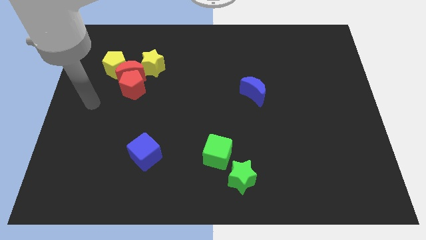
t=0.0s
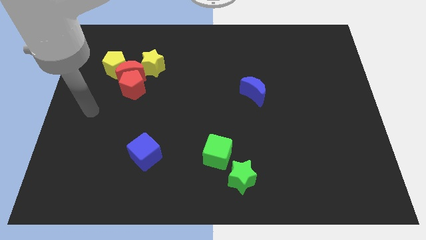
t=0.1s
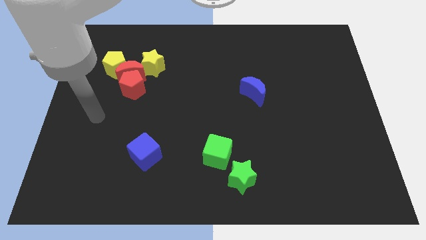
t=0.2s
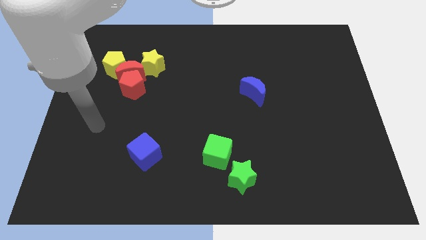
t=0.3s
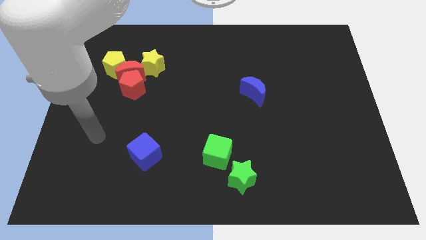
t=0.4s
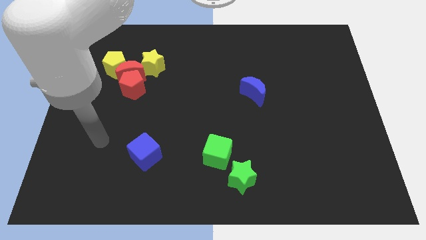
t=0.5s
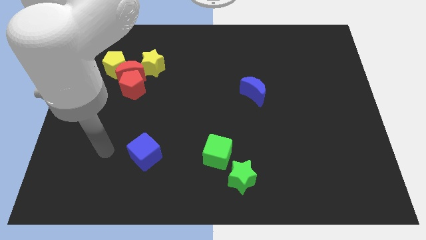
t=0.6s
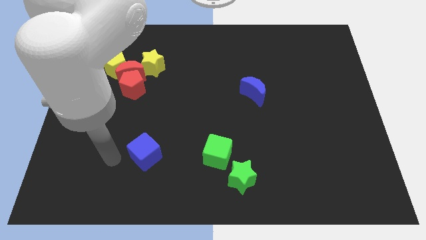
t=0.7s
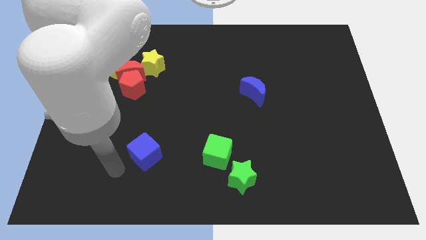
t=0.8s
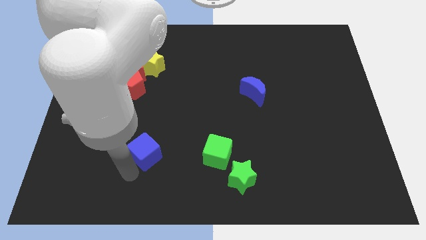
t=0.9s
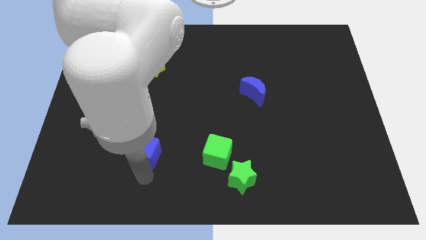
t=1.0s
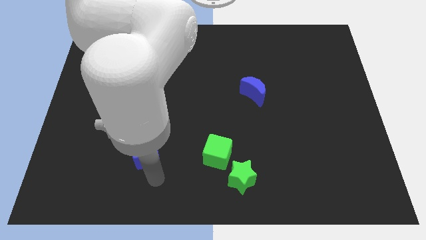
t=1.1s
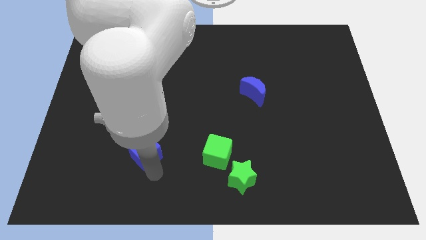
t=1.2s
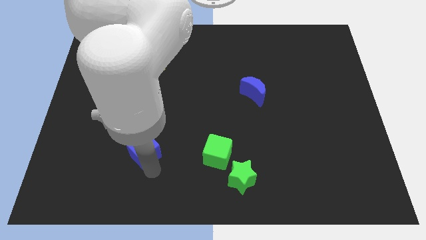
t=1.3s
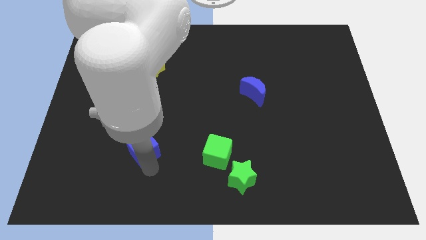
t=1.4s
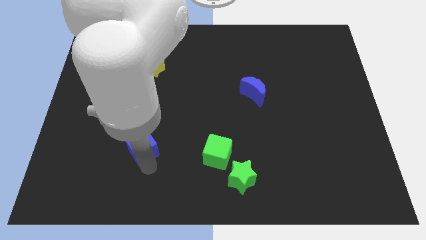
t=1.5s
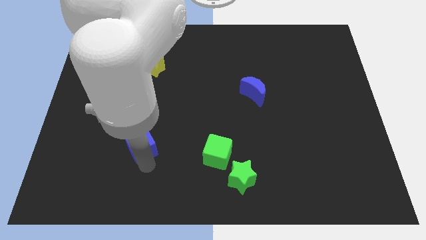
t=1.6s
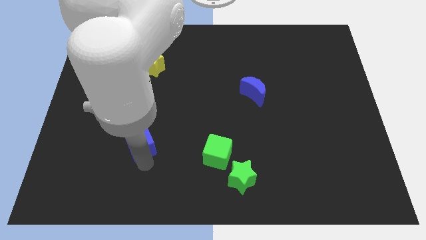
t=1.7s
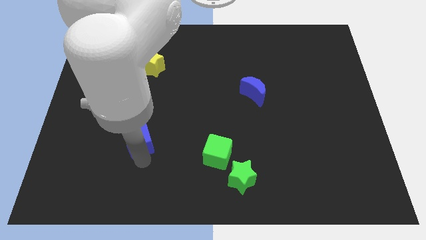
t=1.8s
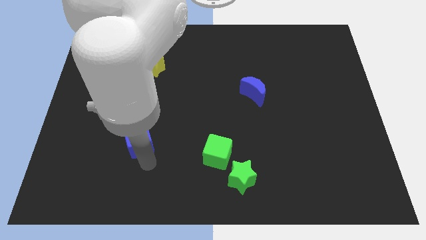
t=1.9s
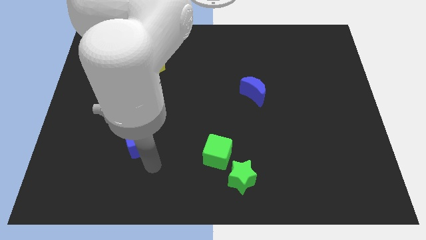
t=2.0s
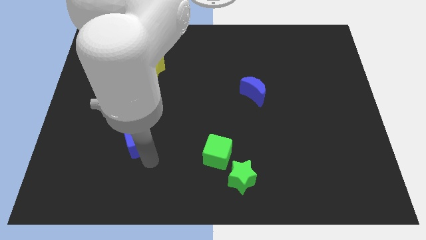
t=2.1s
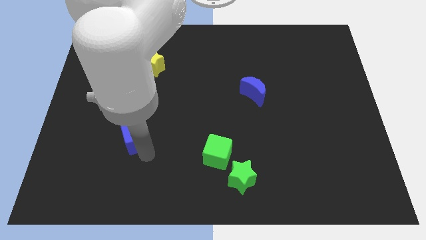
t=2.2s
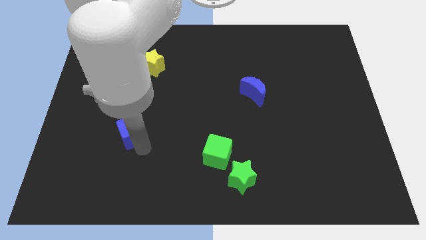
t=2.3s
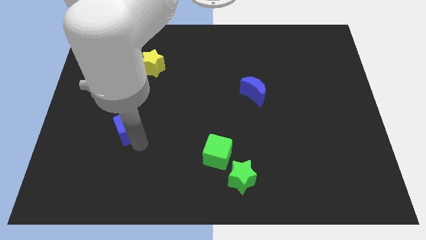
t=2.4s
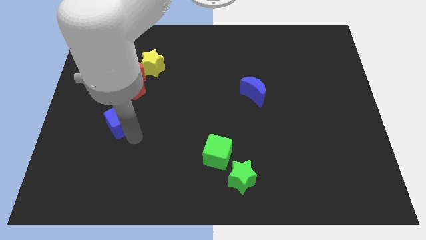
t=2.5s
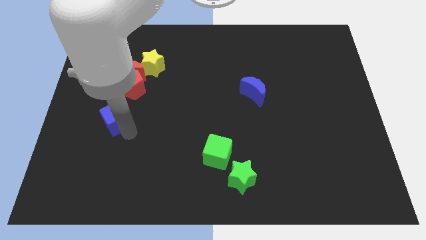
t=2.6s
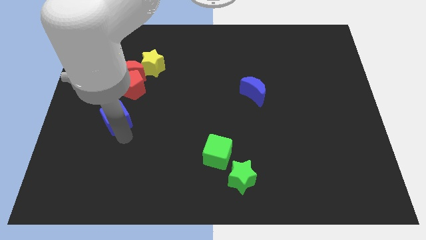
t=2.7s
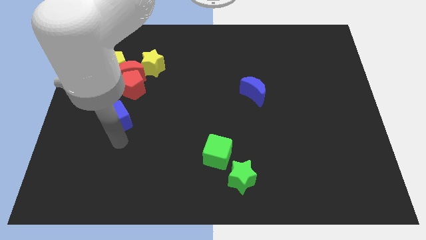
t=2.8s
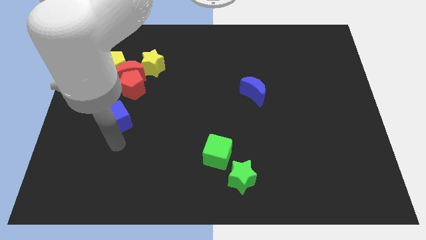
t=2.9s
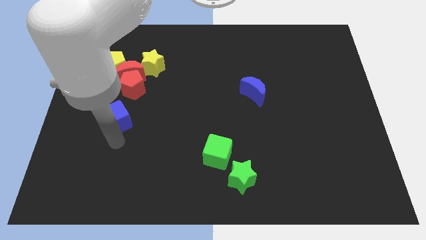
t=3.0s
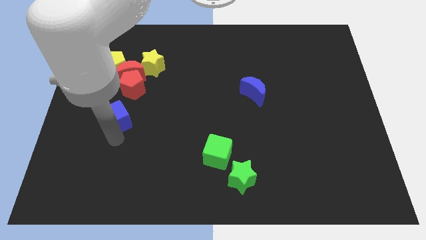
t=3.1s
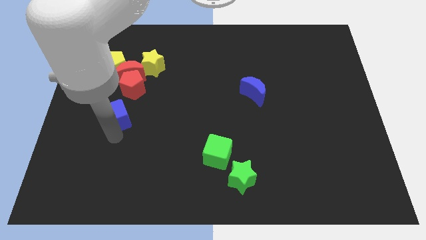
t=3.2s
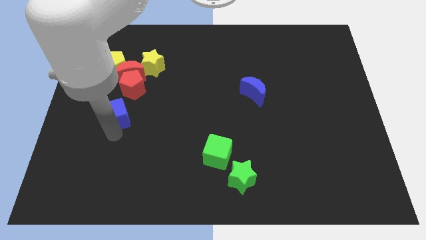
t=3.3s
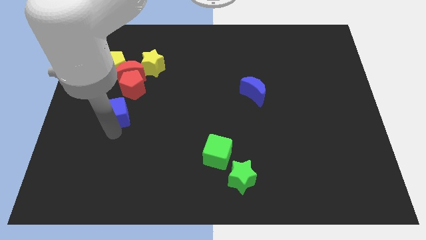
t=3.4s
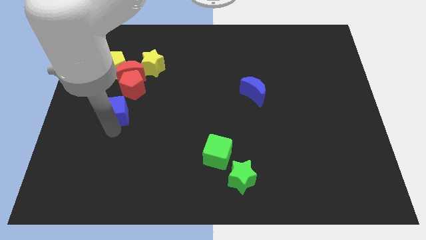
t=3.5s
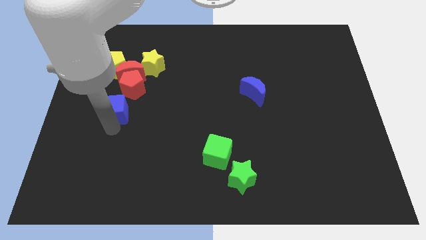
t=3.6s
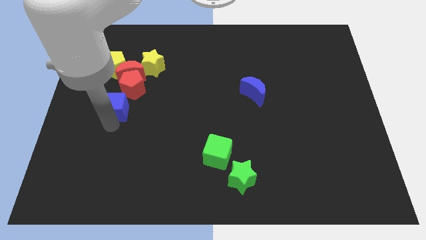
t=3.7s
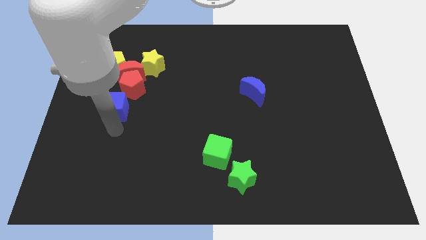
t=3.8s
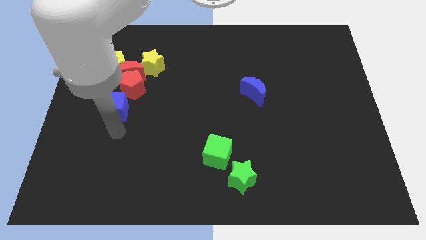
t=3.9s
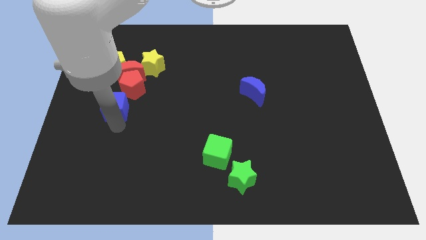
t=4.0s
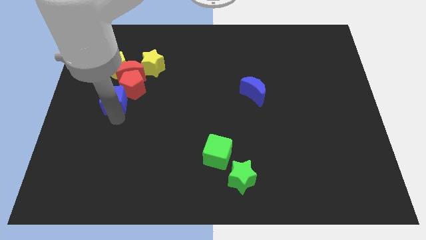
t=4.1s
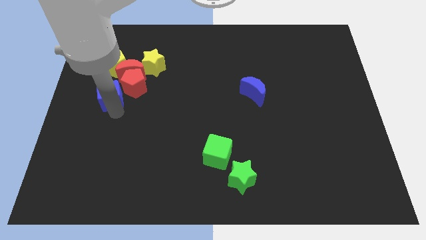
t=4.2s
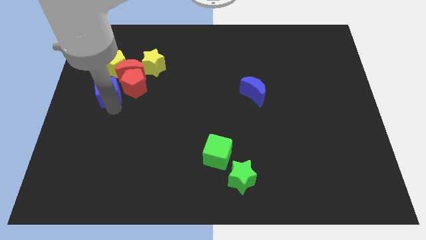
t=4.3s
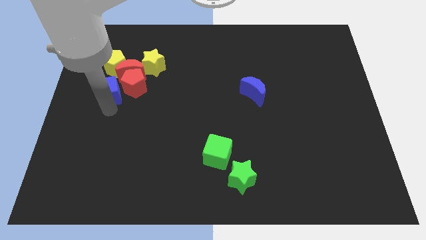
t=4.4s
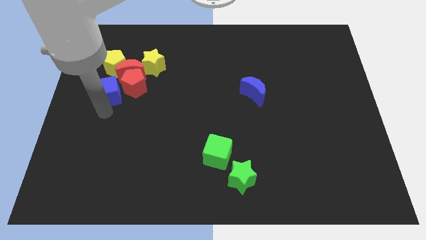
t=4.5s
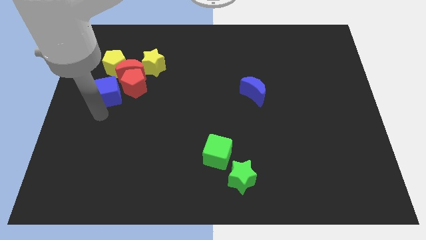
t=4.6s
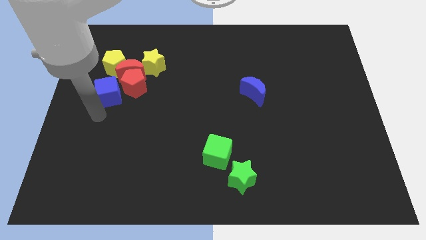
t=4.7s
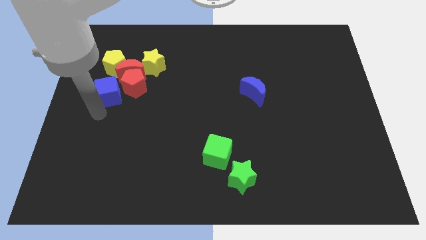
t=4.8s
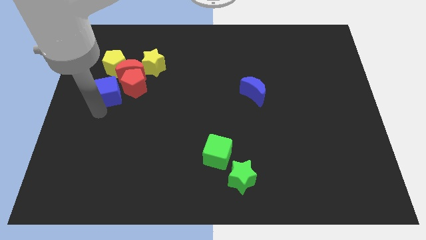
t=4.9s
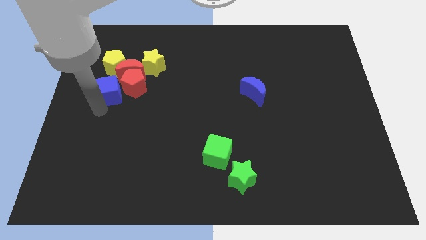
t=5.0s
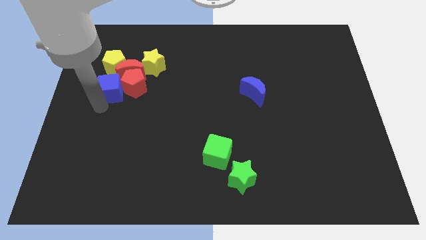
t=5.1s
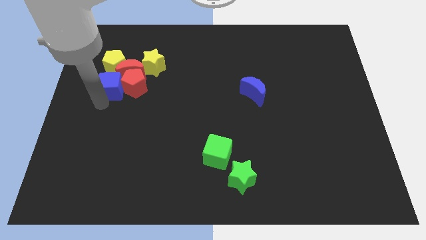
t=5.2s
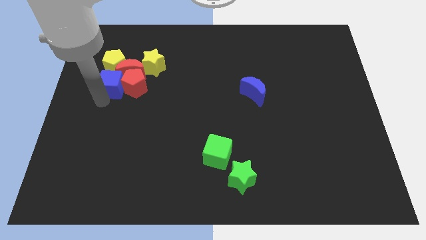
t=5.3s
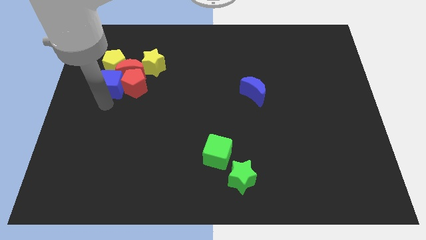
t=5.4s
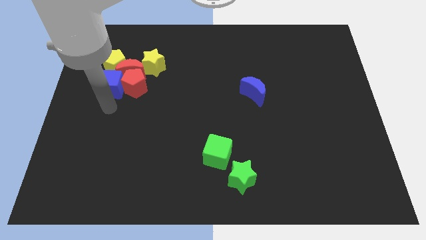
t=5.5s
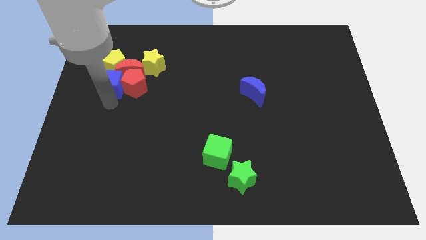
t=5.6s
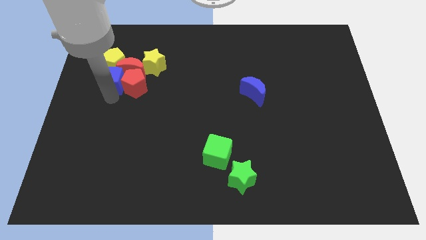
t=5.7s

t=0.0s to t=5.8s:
move the blue cube next to the yellow pentagon

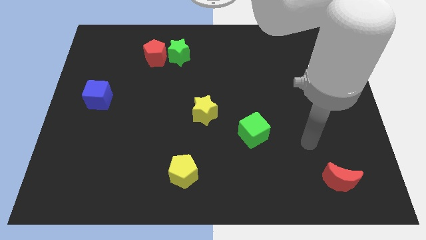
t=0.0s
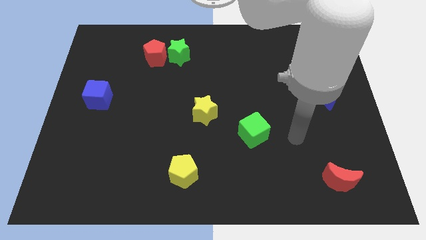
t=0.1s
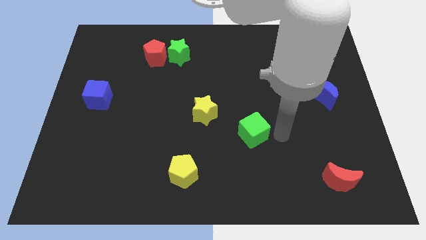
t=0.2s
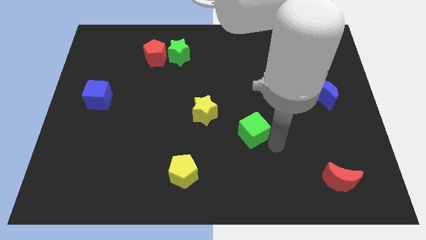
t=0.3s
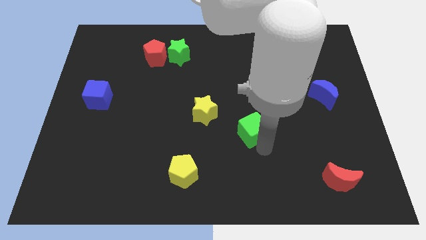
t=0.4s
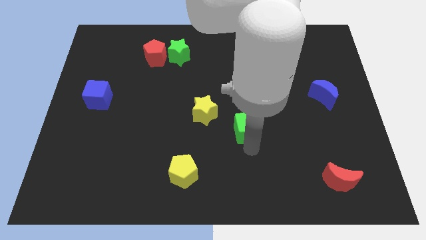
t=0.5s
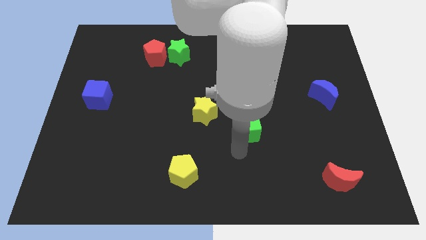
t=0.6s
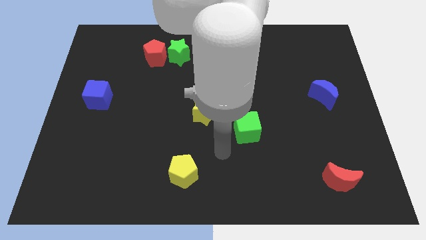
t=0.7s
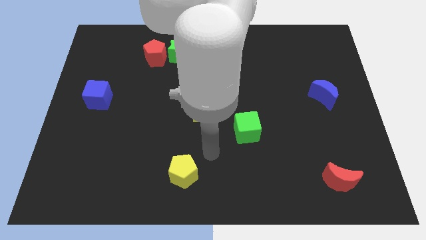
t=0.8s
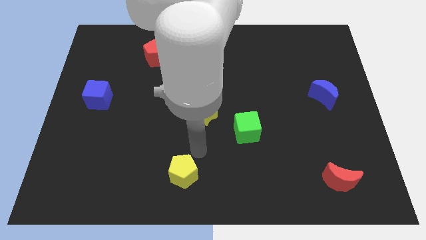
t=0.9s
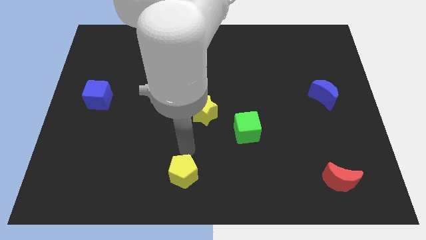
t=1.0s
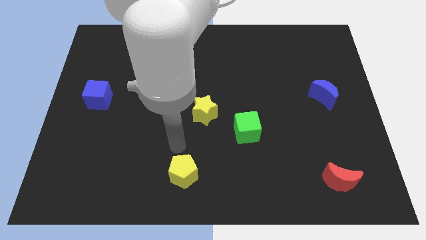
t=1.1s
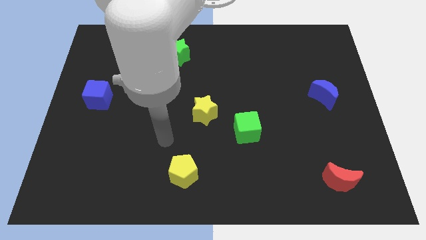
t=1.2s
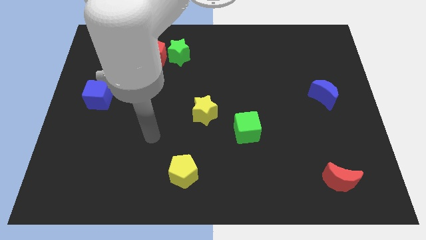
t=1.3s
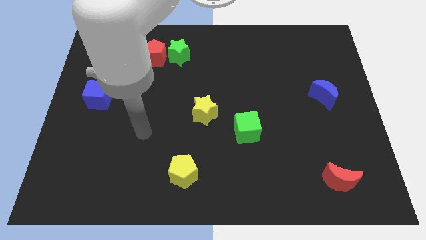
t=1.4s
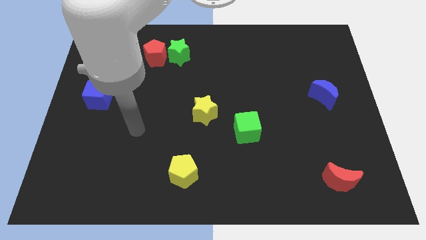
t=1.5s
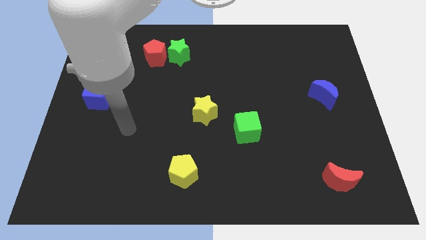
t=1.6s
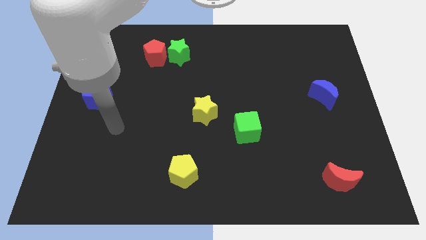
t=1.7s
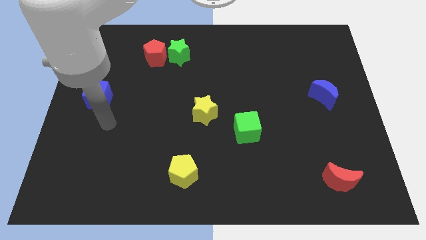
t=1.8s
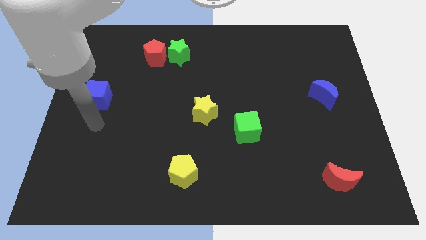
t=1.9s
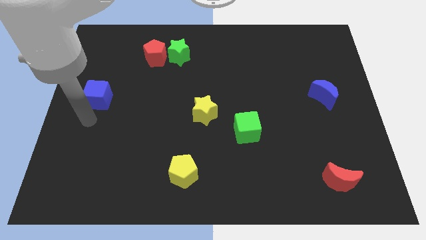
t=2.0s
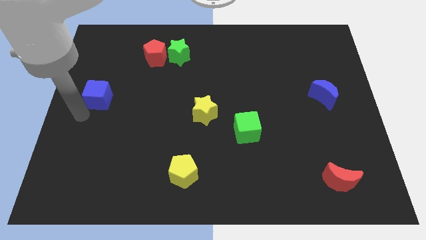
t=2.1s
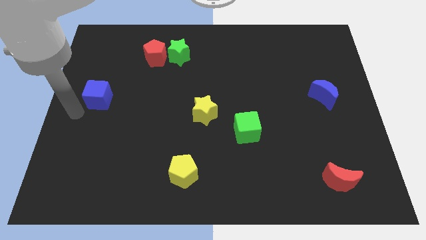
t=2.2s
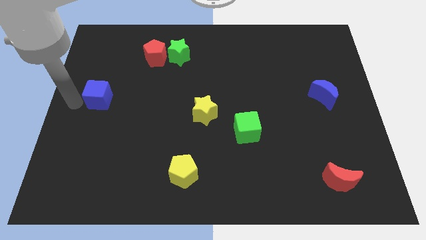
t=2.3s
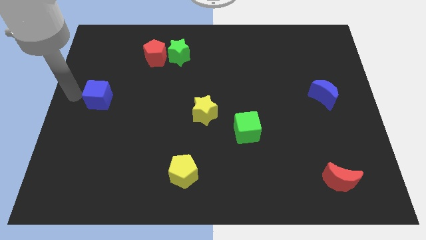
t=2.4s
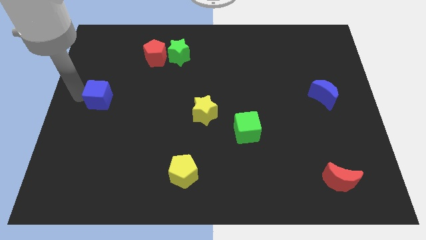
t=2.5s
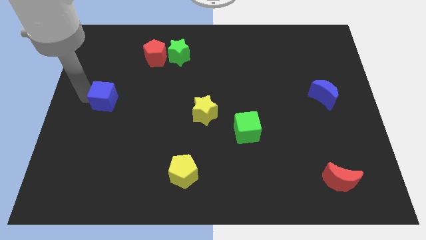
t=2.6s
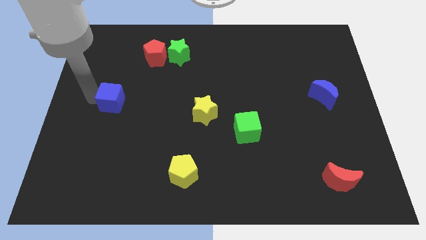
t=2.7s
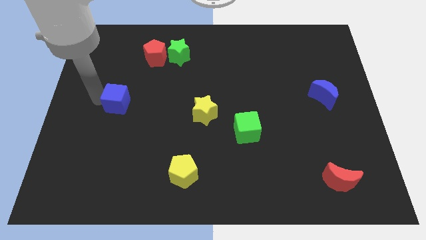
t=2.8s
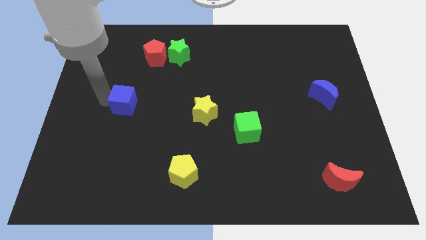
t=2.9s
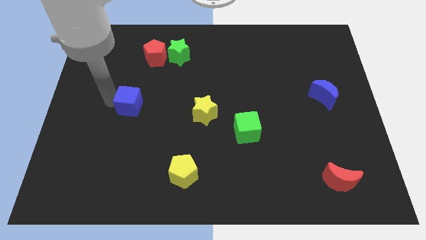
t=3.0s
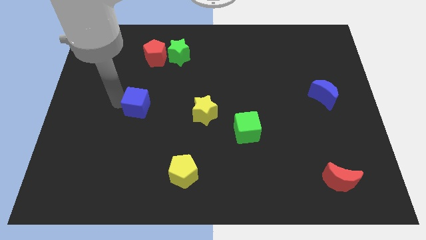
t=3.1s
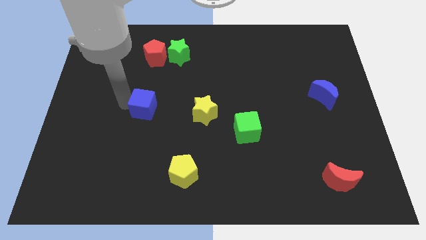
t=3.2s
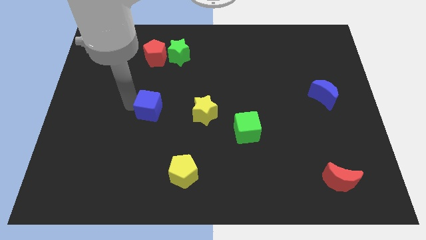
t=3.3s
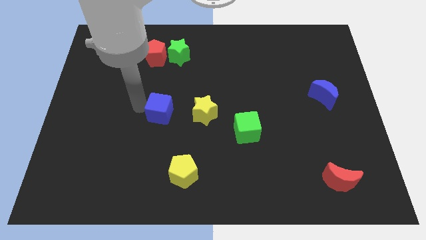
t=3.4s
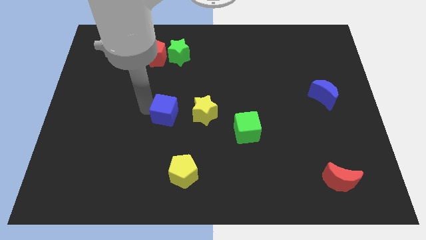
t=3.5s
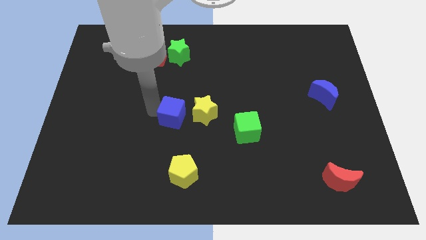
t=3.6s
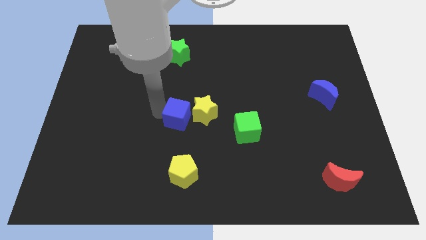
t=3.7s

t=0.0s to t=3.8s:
put the blue cube to the yellow star
